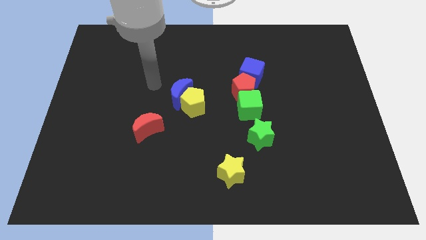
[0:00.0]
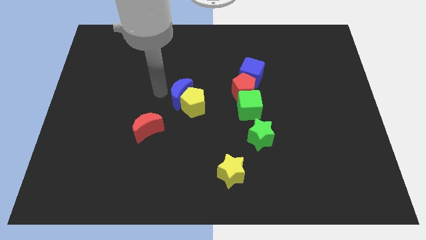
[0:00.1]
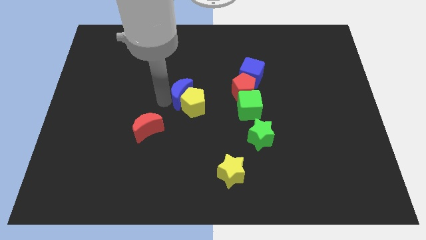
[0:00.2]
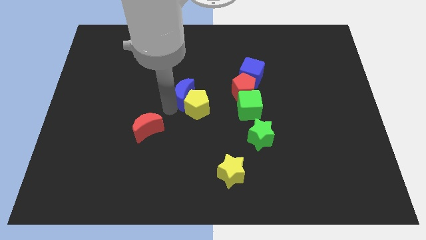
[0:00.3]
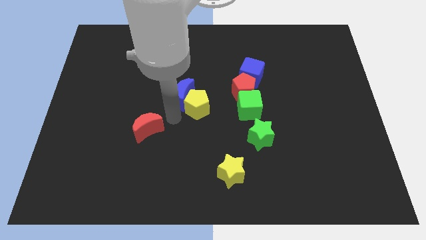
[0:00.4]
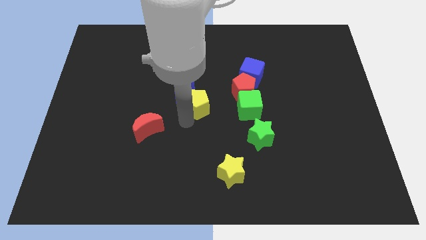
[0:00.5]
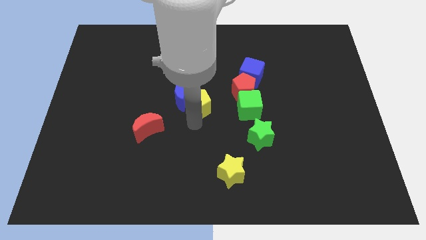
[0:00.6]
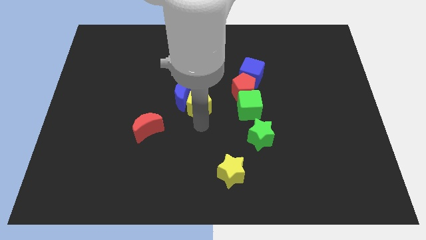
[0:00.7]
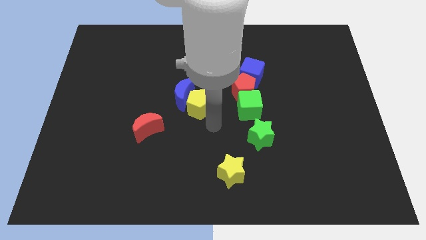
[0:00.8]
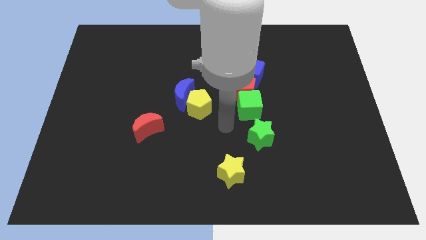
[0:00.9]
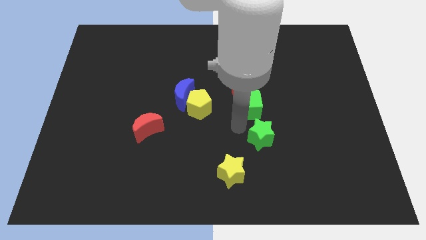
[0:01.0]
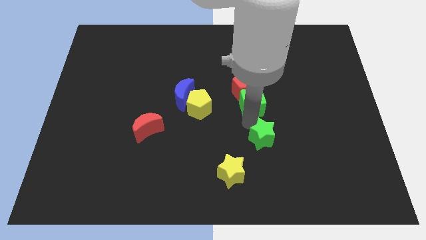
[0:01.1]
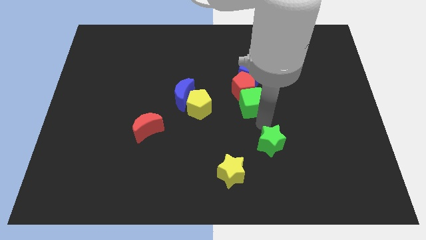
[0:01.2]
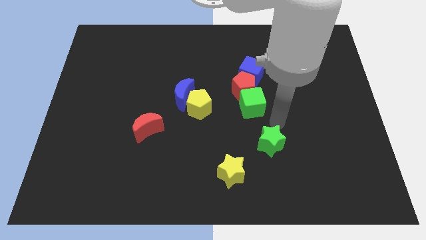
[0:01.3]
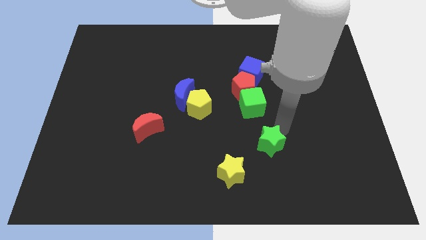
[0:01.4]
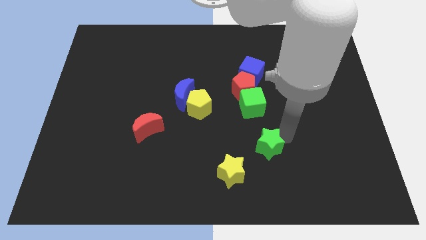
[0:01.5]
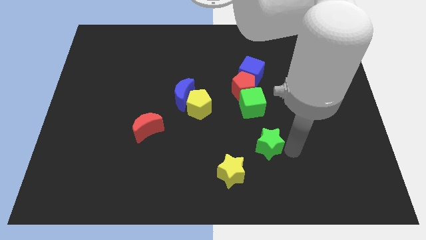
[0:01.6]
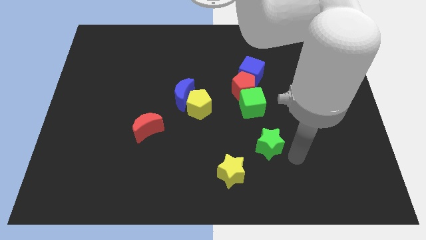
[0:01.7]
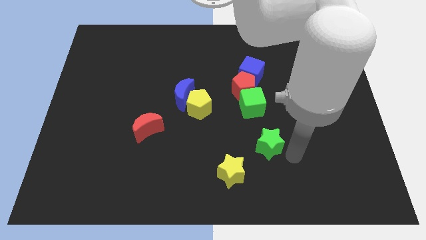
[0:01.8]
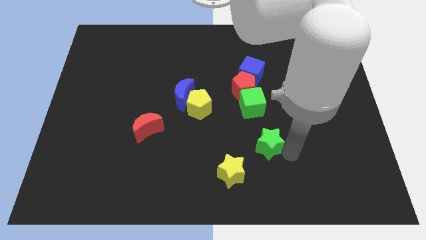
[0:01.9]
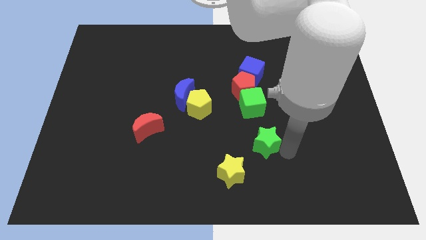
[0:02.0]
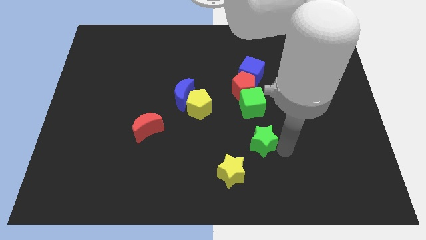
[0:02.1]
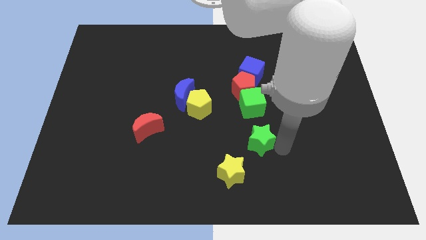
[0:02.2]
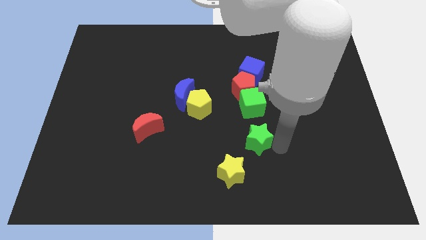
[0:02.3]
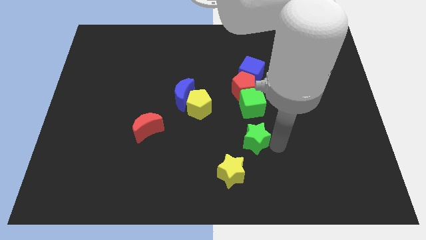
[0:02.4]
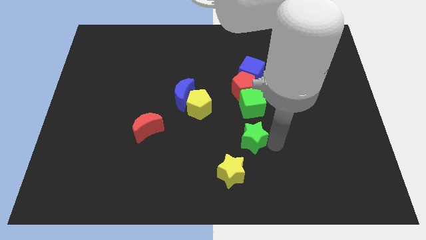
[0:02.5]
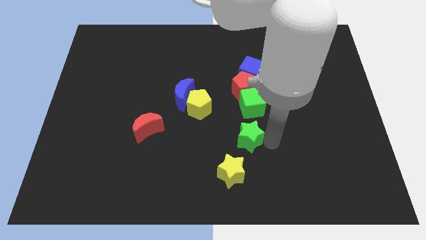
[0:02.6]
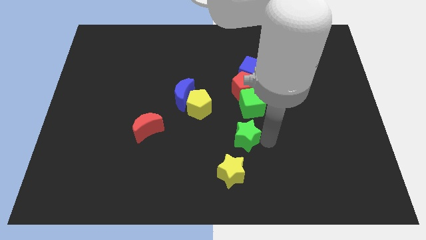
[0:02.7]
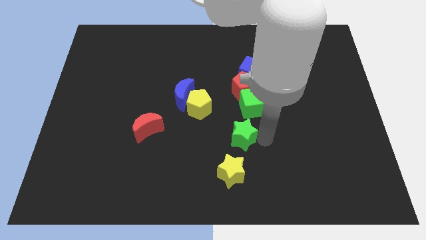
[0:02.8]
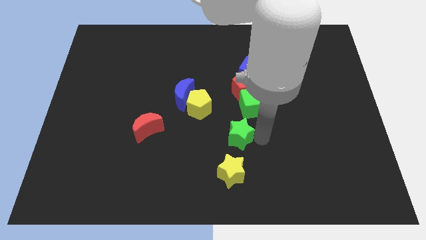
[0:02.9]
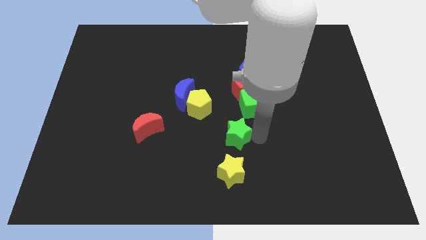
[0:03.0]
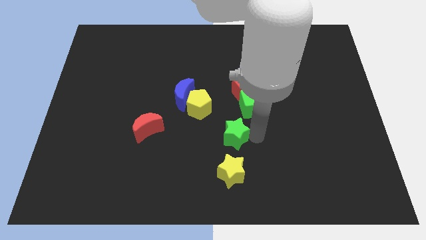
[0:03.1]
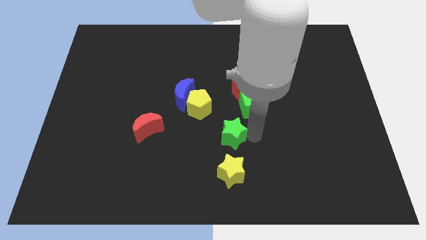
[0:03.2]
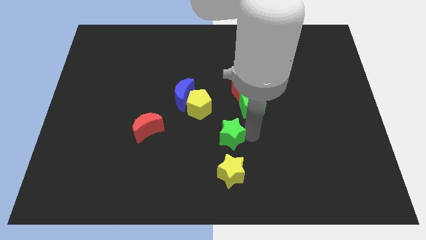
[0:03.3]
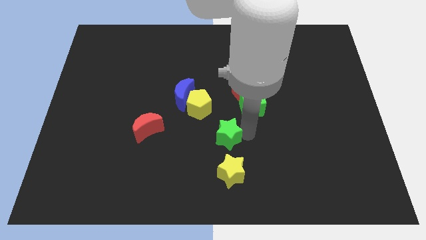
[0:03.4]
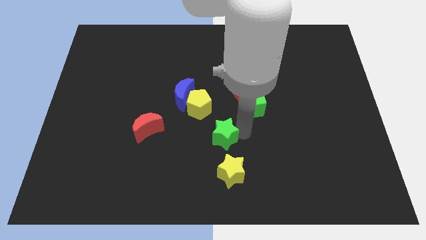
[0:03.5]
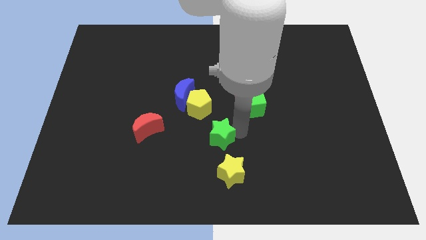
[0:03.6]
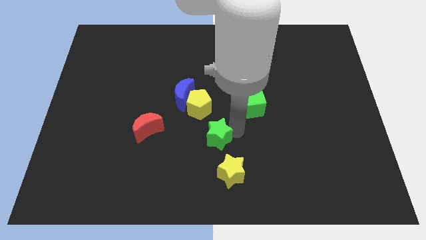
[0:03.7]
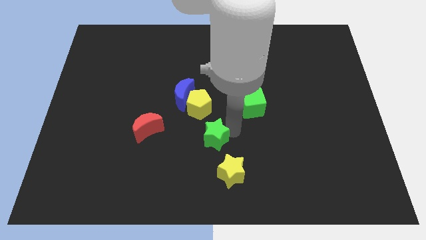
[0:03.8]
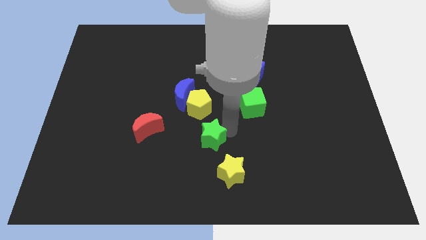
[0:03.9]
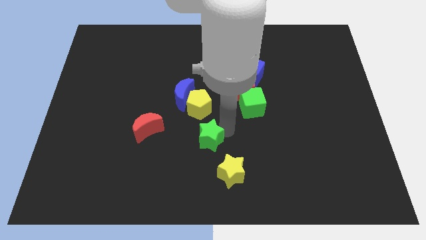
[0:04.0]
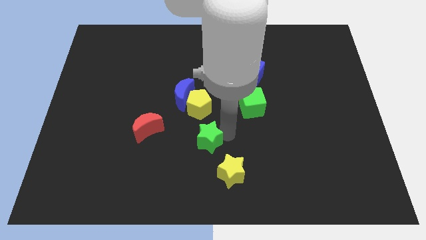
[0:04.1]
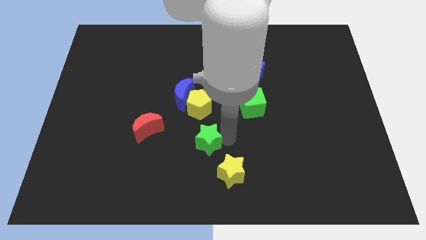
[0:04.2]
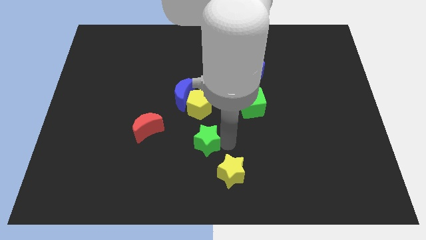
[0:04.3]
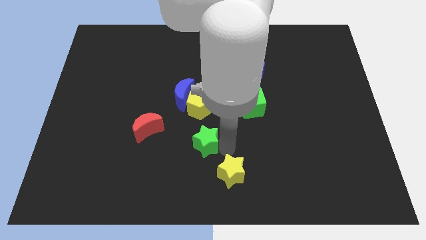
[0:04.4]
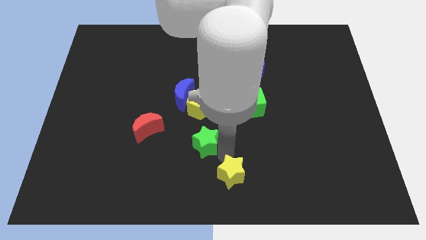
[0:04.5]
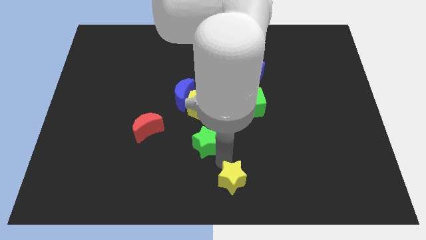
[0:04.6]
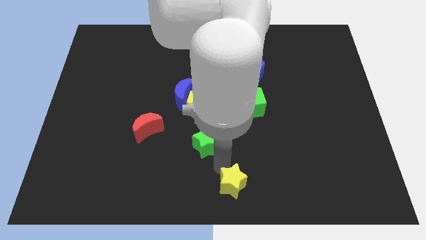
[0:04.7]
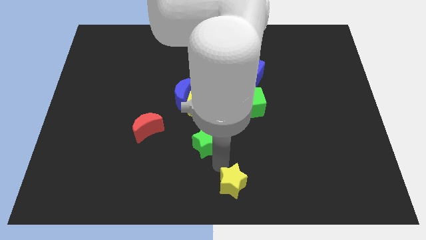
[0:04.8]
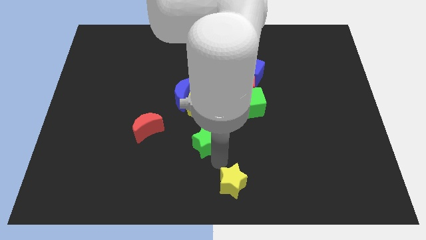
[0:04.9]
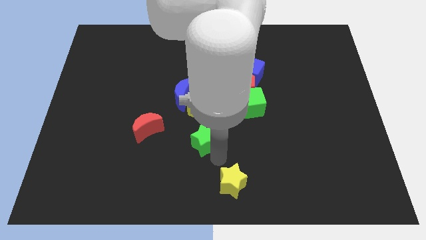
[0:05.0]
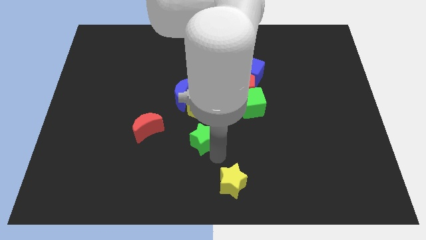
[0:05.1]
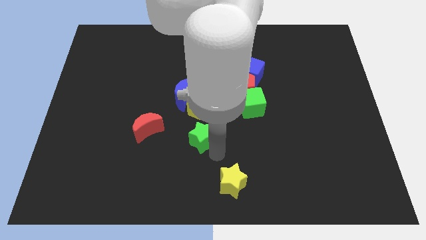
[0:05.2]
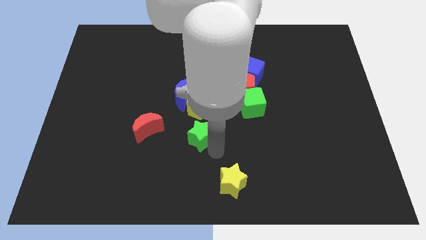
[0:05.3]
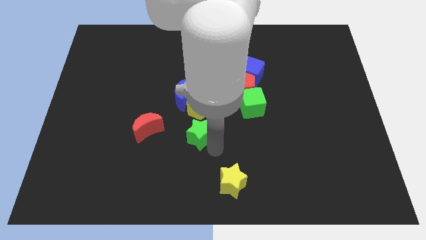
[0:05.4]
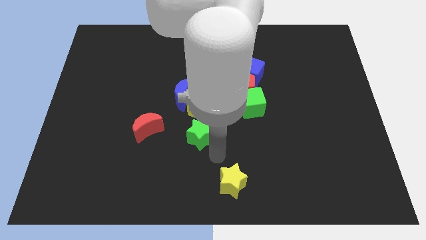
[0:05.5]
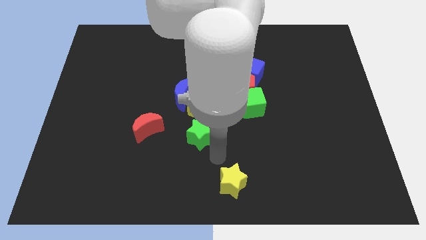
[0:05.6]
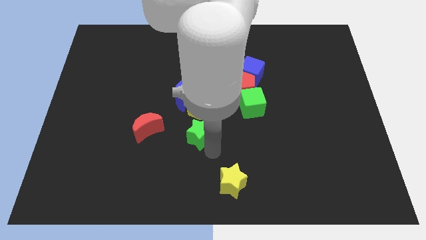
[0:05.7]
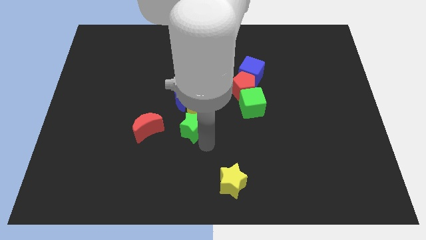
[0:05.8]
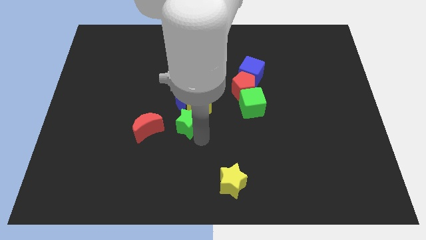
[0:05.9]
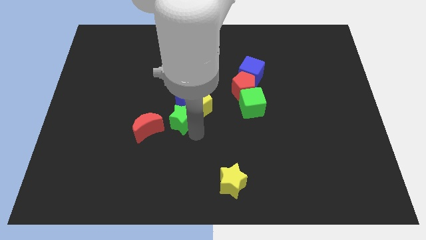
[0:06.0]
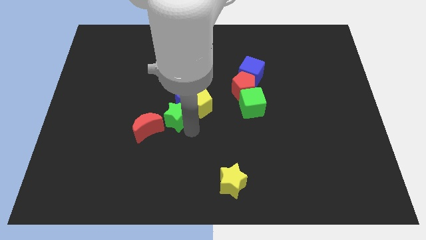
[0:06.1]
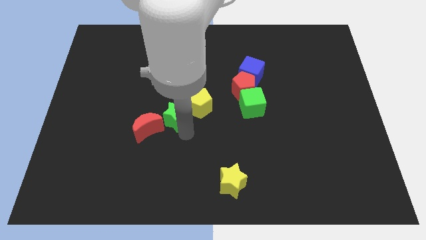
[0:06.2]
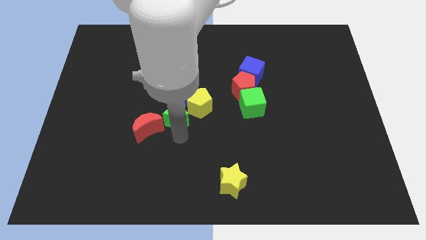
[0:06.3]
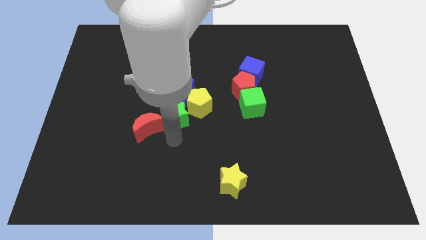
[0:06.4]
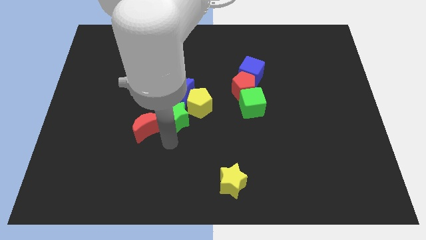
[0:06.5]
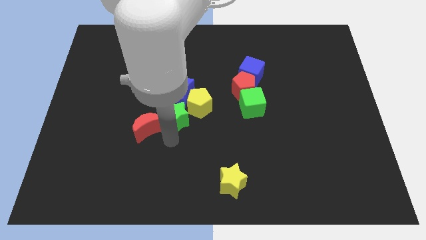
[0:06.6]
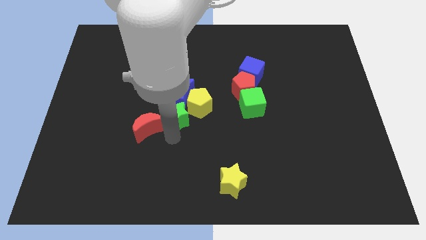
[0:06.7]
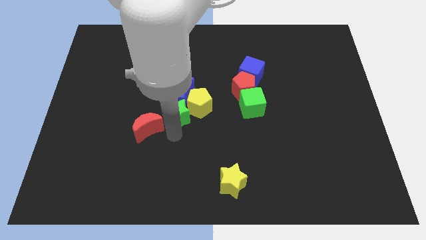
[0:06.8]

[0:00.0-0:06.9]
slide the green star towards the blue moon

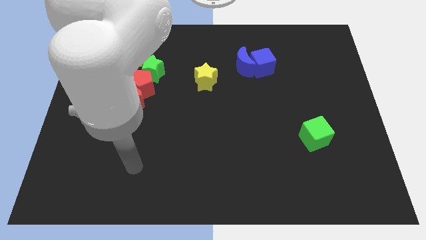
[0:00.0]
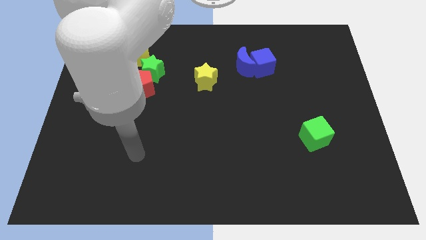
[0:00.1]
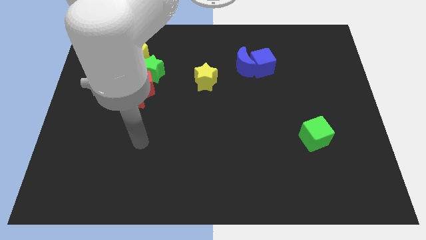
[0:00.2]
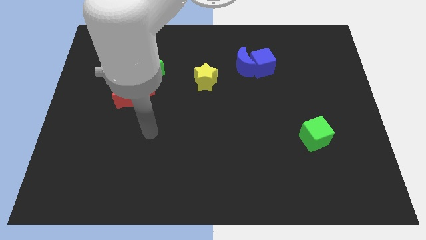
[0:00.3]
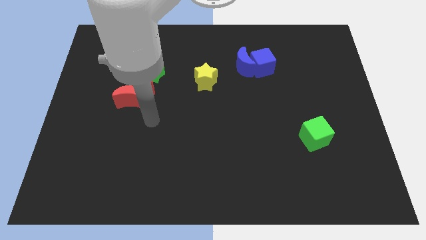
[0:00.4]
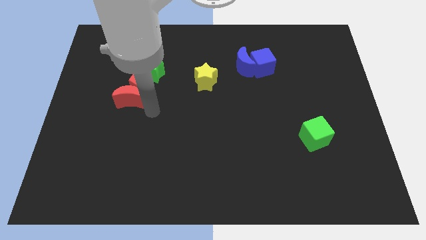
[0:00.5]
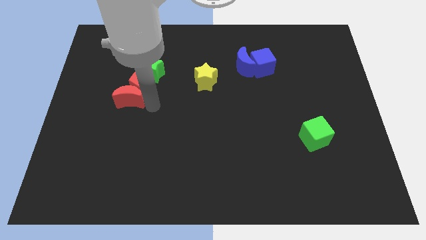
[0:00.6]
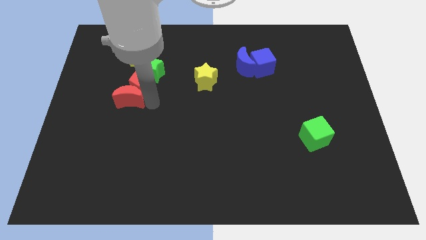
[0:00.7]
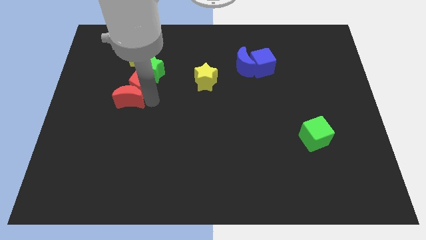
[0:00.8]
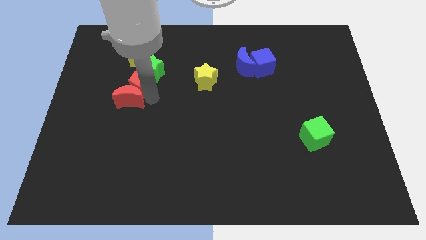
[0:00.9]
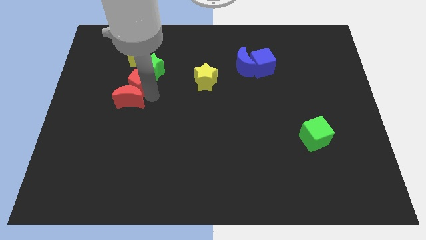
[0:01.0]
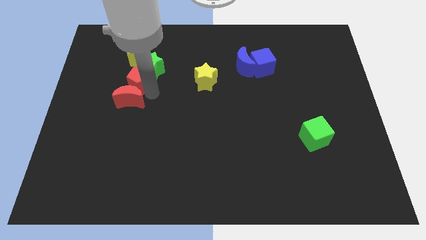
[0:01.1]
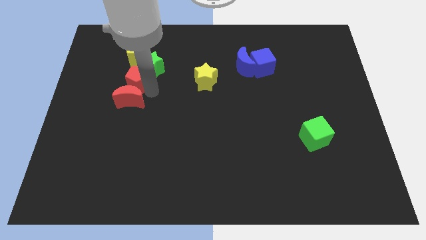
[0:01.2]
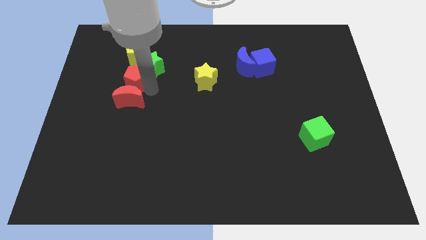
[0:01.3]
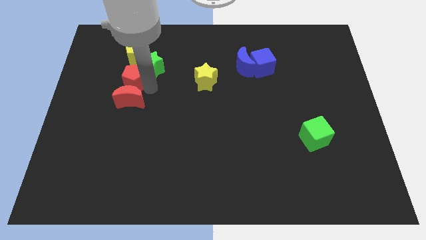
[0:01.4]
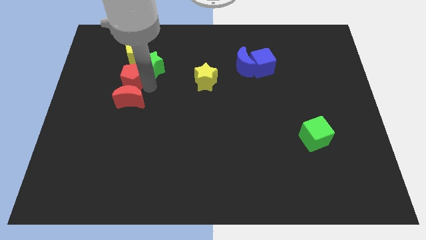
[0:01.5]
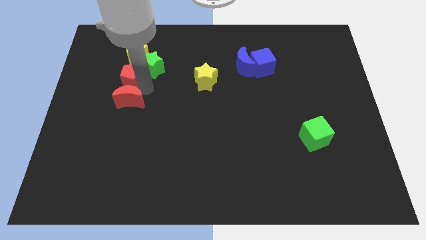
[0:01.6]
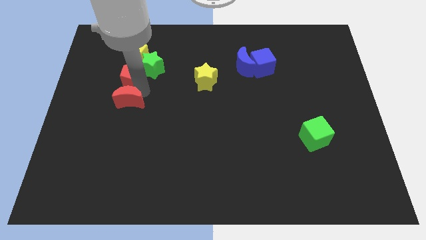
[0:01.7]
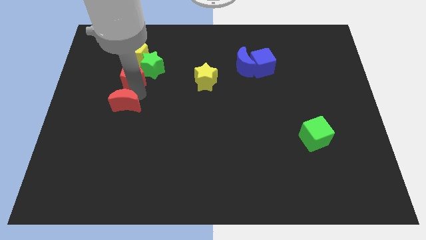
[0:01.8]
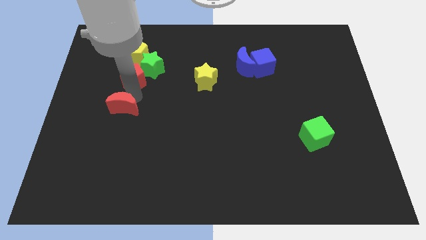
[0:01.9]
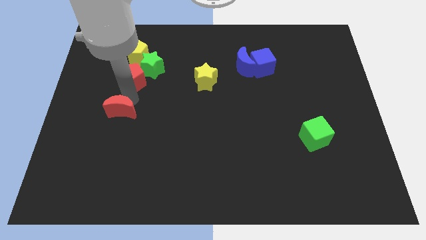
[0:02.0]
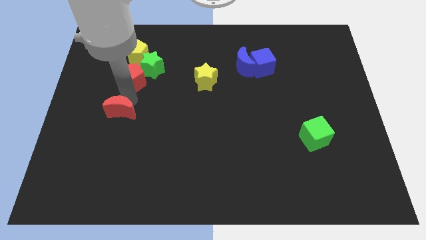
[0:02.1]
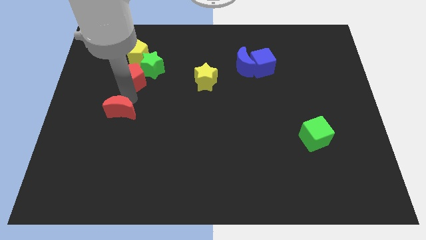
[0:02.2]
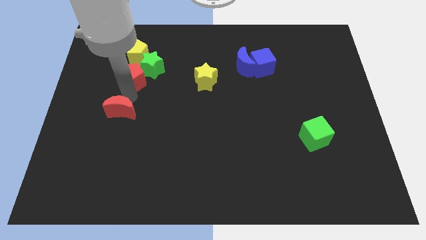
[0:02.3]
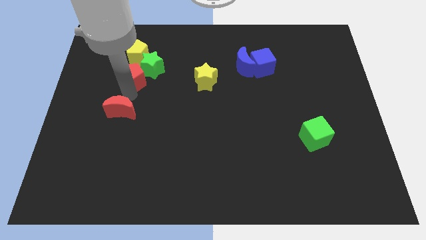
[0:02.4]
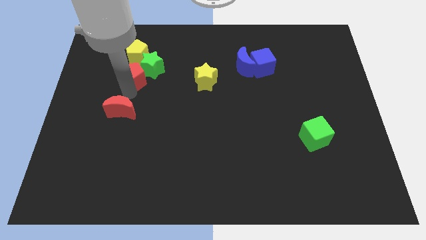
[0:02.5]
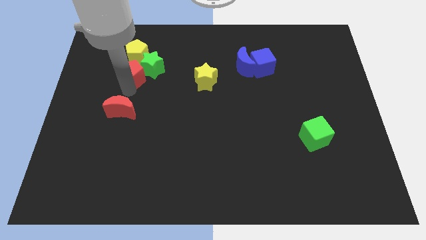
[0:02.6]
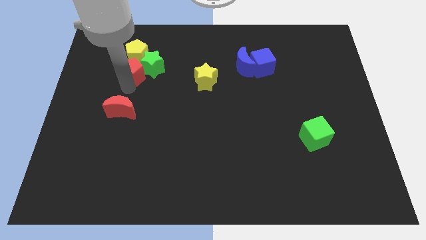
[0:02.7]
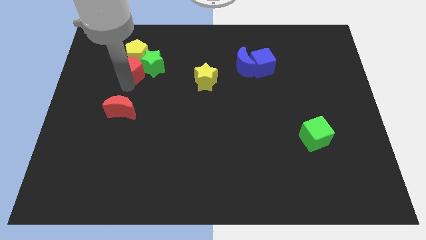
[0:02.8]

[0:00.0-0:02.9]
push the red pentagon towards the yellow pentagon
